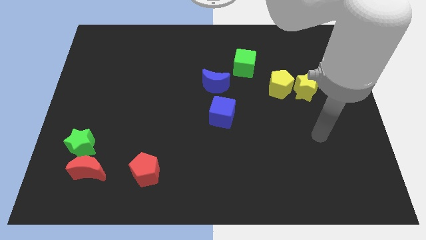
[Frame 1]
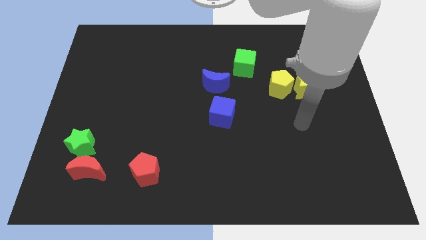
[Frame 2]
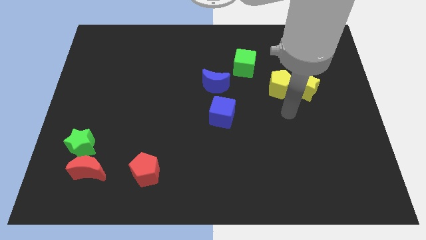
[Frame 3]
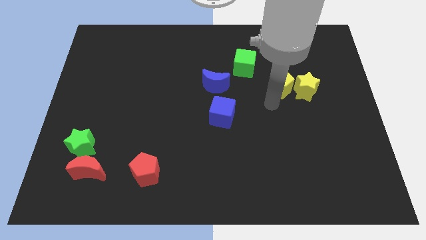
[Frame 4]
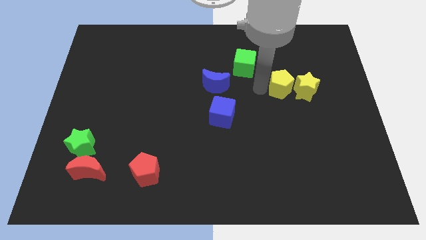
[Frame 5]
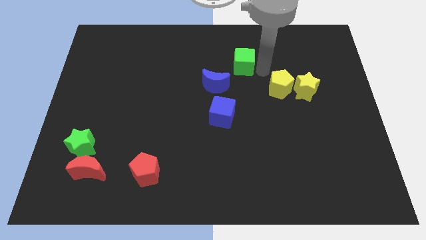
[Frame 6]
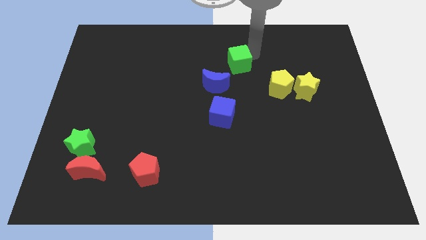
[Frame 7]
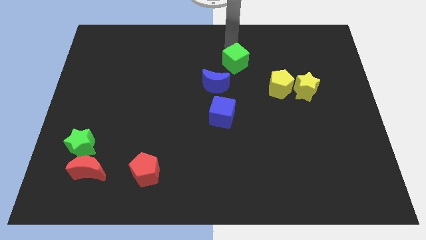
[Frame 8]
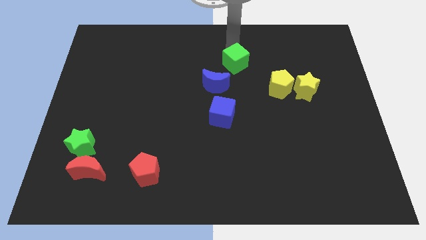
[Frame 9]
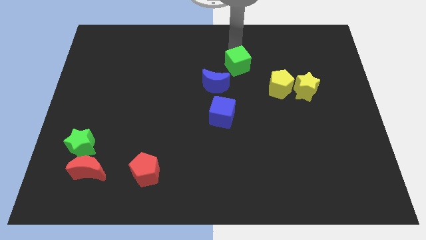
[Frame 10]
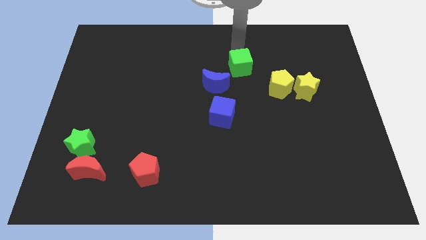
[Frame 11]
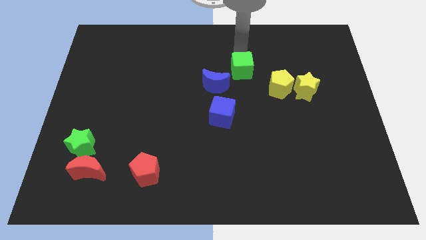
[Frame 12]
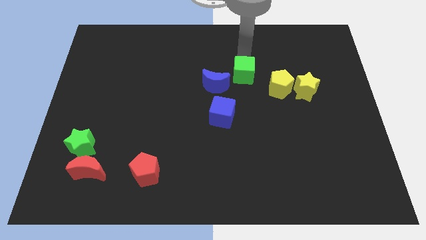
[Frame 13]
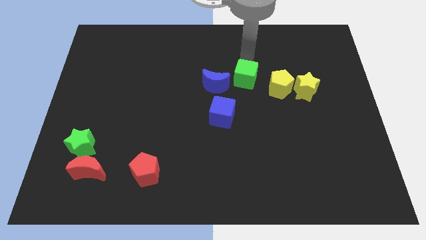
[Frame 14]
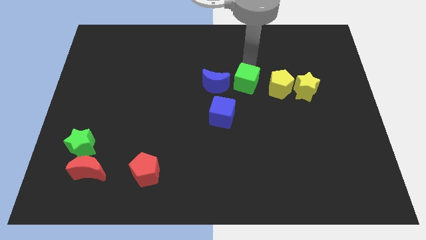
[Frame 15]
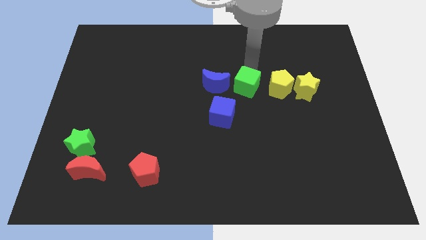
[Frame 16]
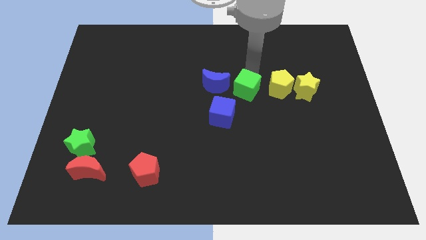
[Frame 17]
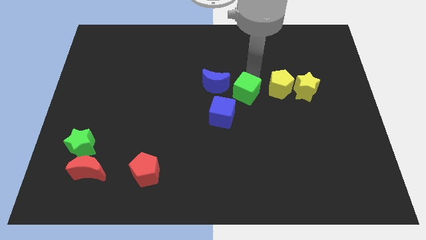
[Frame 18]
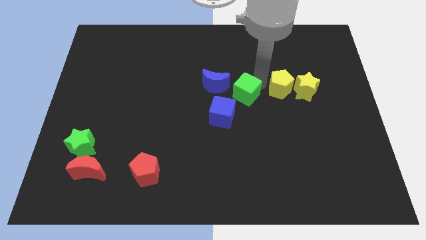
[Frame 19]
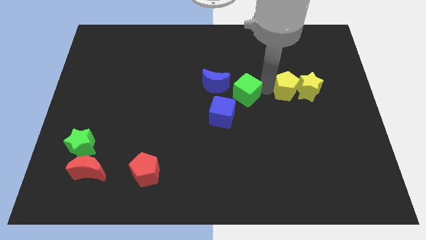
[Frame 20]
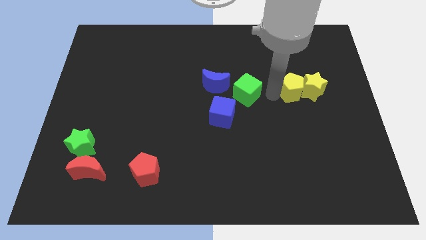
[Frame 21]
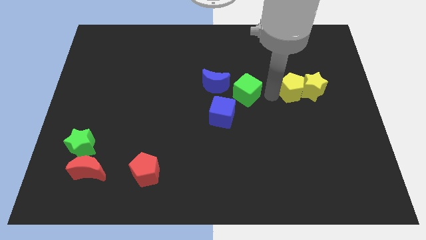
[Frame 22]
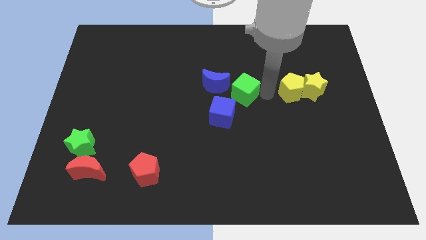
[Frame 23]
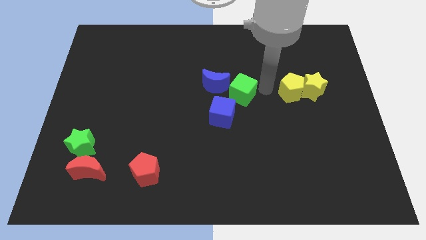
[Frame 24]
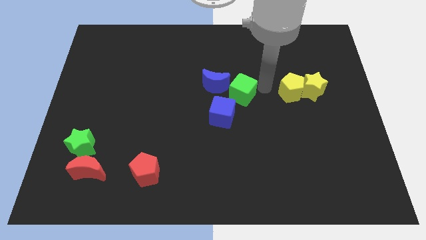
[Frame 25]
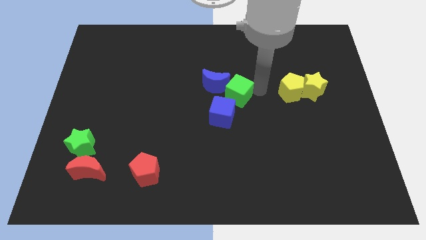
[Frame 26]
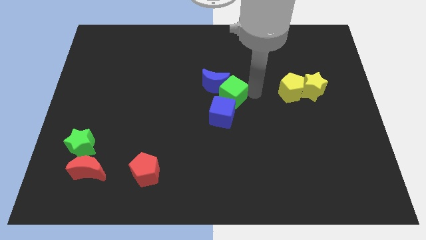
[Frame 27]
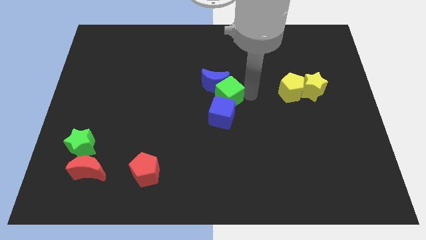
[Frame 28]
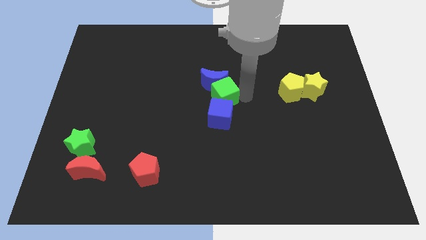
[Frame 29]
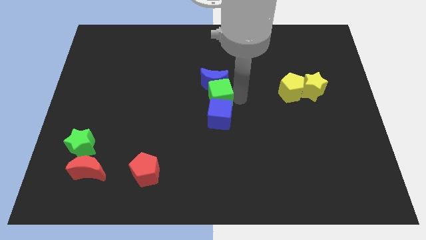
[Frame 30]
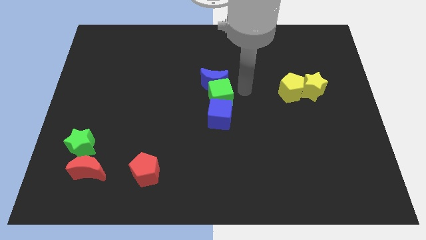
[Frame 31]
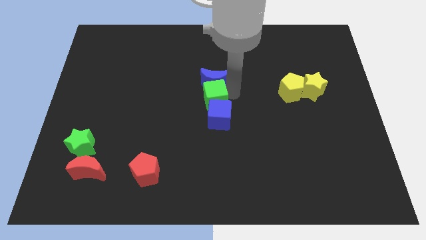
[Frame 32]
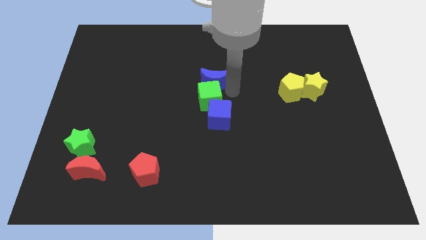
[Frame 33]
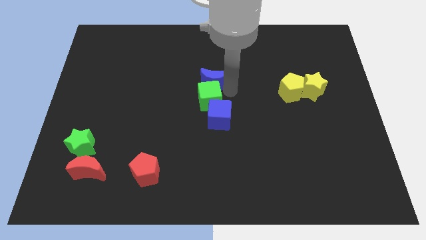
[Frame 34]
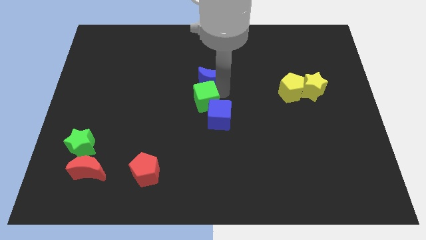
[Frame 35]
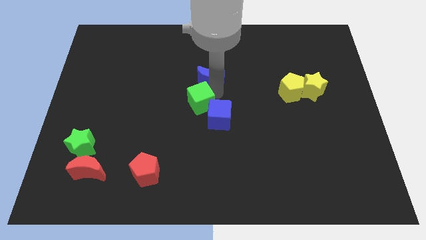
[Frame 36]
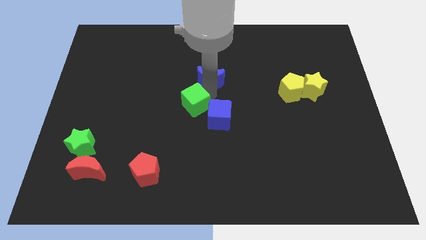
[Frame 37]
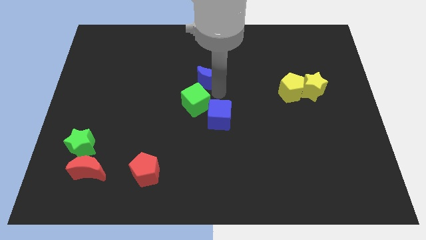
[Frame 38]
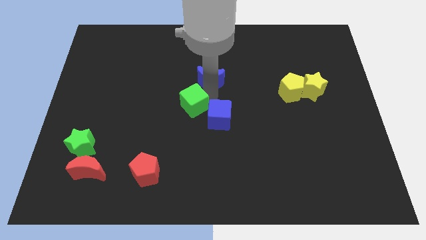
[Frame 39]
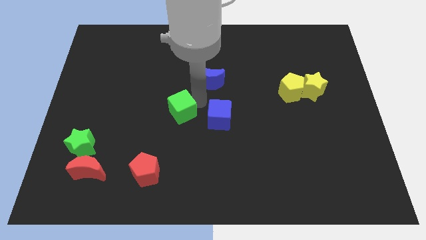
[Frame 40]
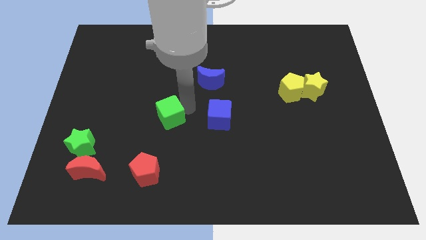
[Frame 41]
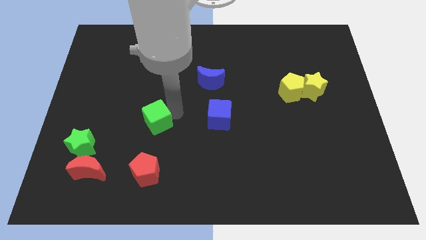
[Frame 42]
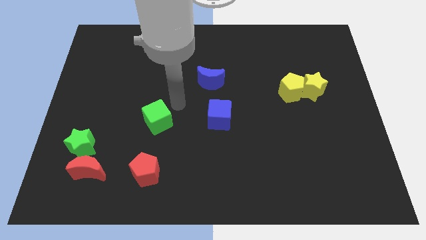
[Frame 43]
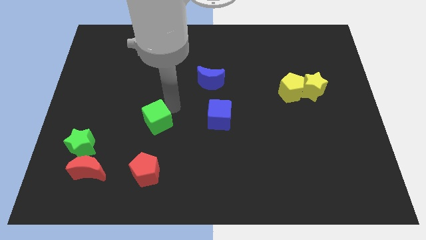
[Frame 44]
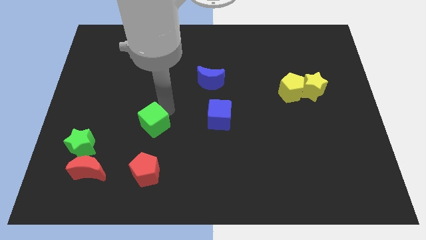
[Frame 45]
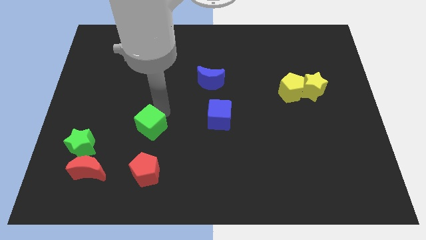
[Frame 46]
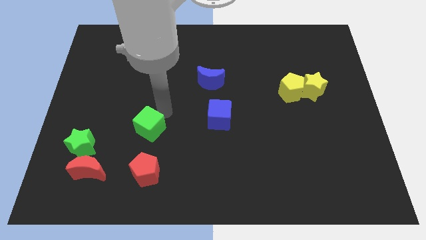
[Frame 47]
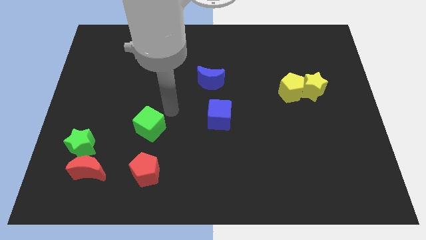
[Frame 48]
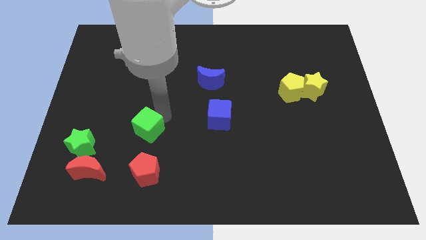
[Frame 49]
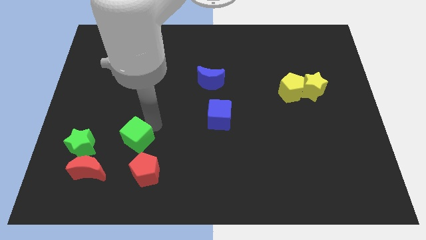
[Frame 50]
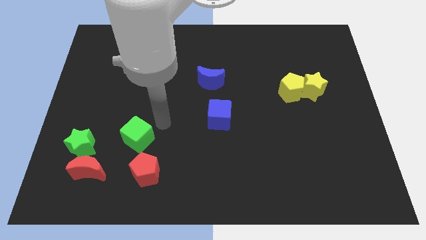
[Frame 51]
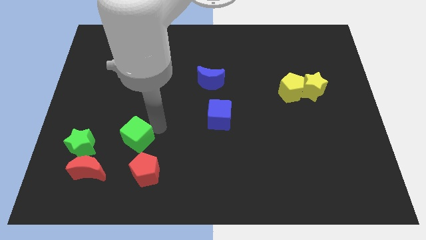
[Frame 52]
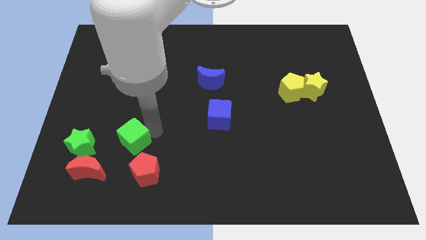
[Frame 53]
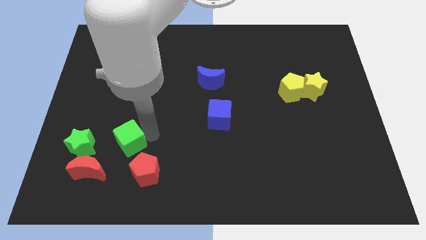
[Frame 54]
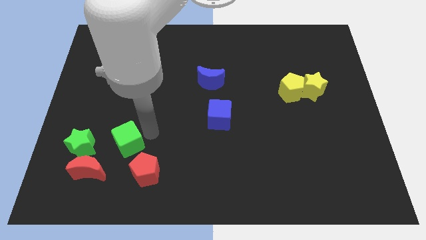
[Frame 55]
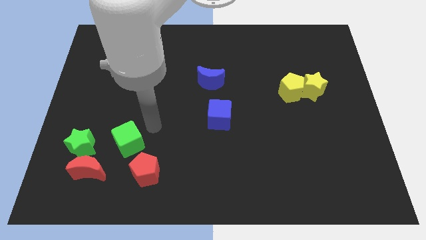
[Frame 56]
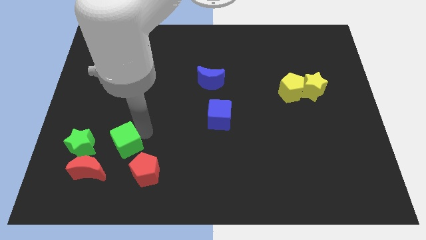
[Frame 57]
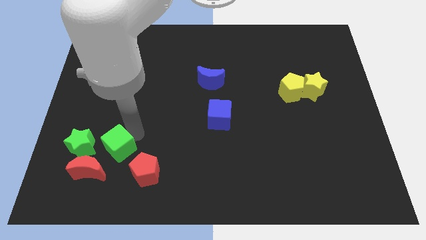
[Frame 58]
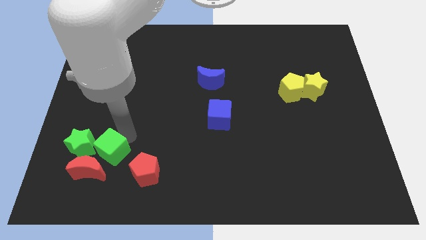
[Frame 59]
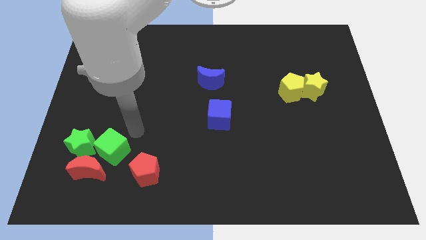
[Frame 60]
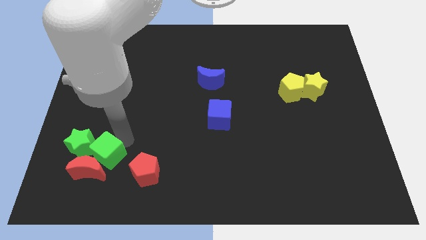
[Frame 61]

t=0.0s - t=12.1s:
move the green cube close to the red moon

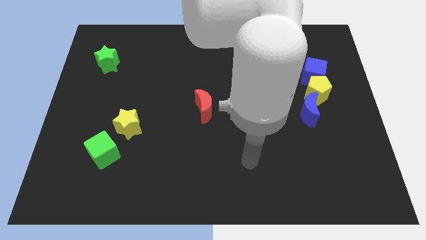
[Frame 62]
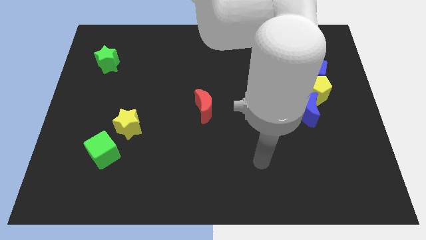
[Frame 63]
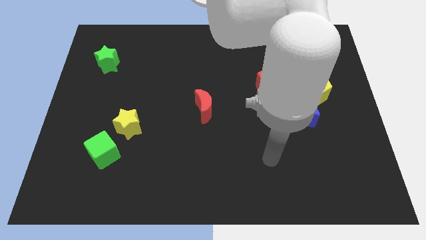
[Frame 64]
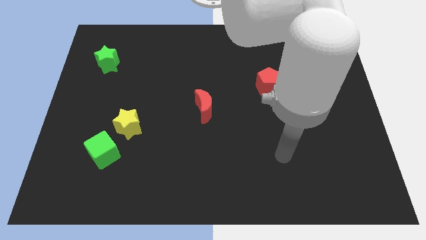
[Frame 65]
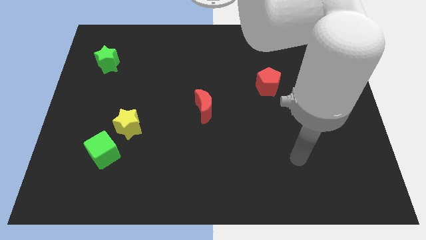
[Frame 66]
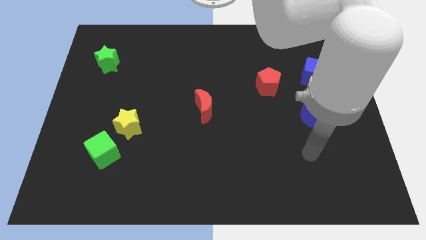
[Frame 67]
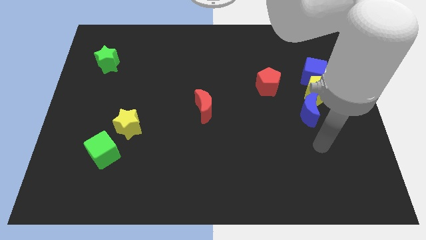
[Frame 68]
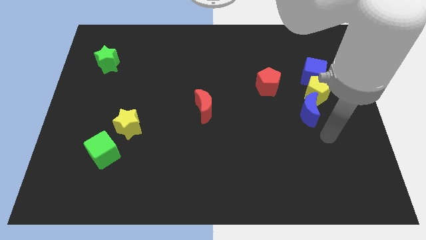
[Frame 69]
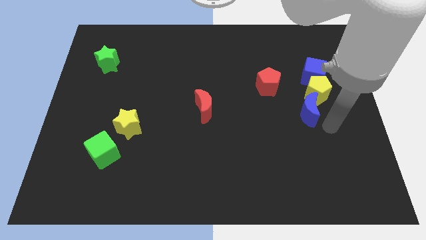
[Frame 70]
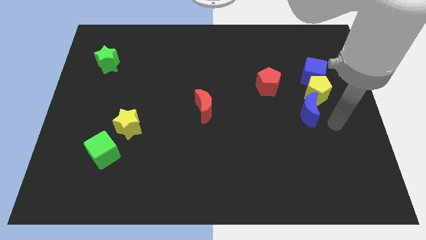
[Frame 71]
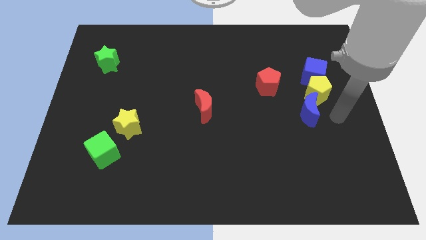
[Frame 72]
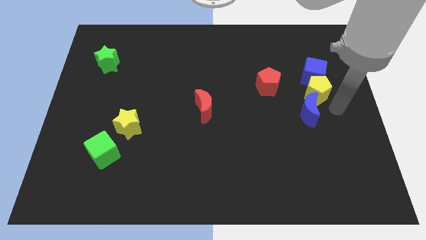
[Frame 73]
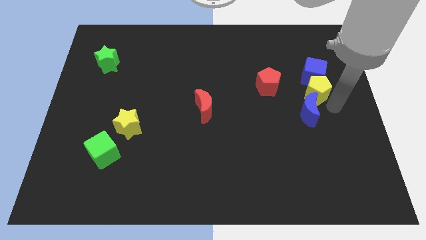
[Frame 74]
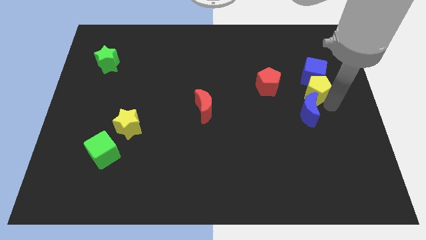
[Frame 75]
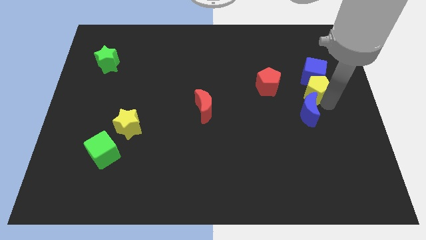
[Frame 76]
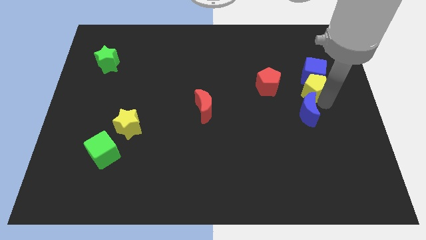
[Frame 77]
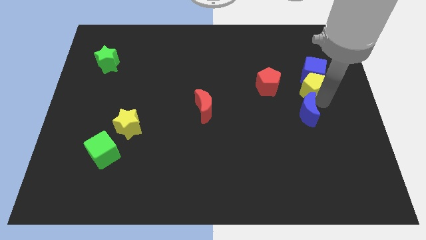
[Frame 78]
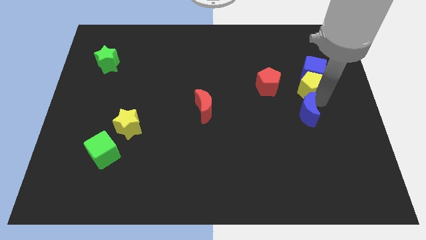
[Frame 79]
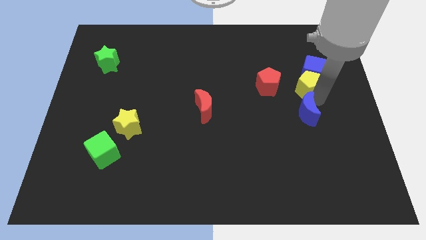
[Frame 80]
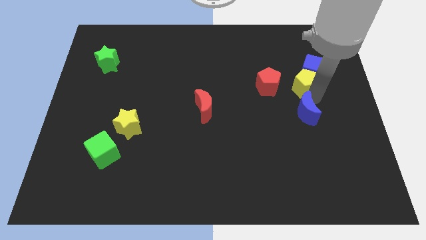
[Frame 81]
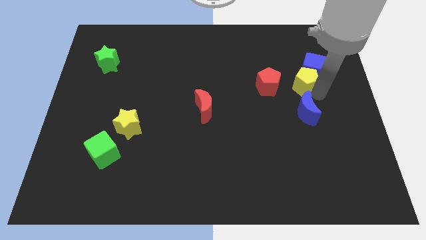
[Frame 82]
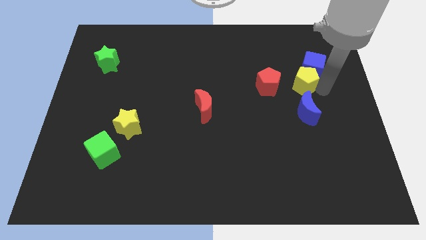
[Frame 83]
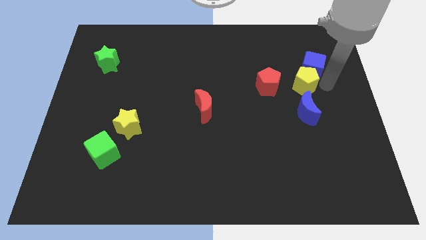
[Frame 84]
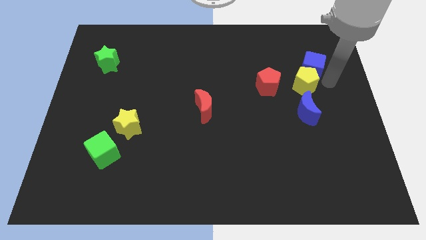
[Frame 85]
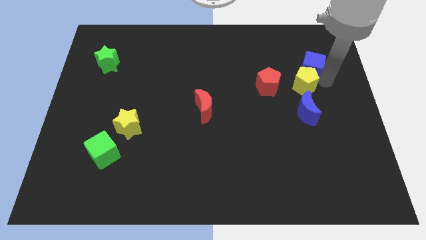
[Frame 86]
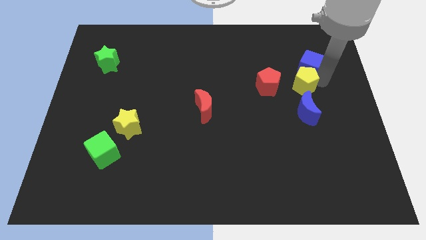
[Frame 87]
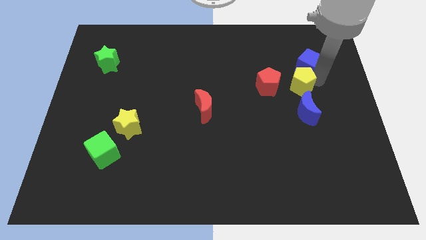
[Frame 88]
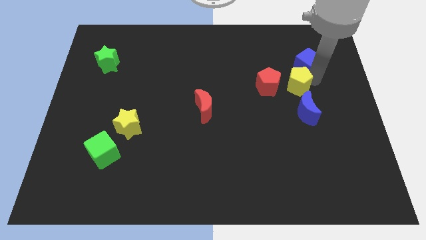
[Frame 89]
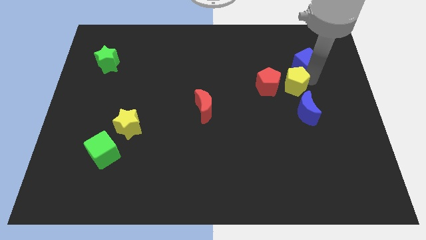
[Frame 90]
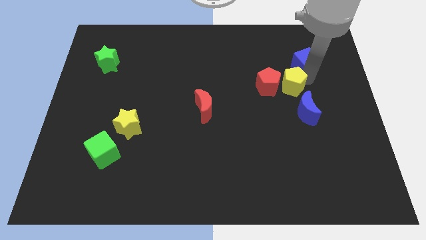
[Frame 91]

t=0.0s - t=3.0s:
put the yellow pentagon towards the red pentagon
